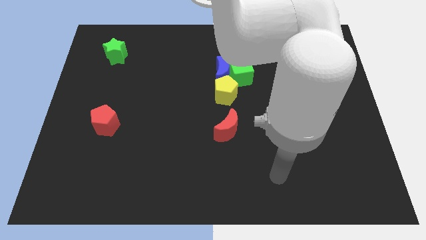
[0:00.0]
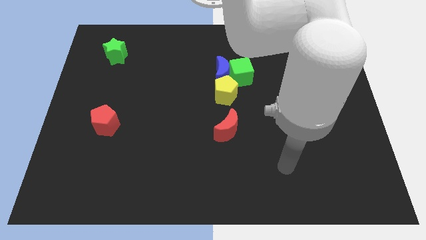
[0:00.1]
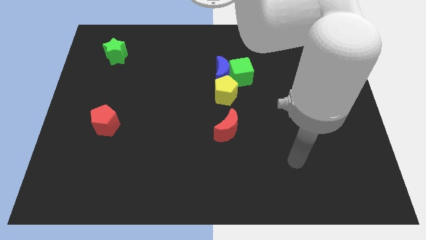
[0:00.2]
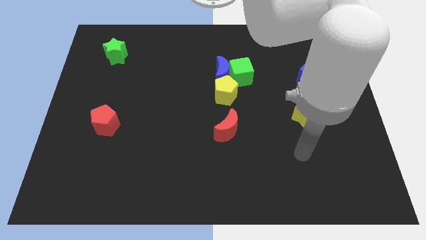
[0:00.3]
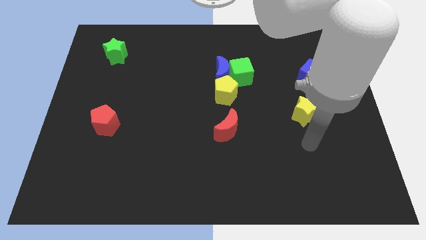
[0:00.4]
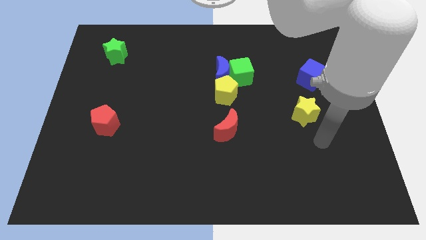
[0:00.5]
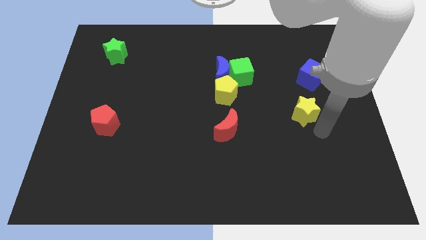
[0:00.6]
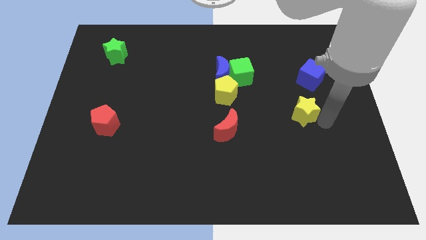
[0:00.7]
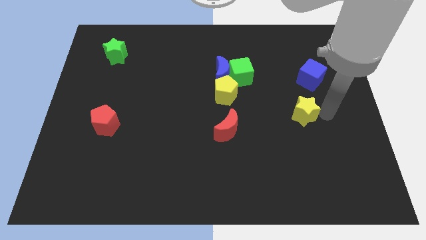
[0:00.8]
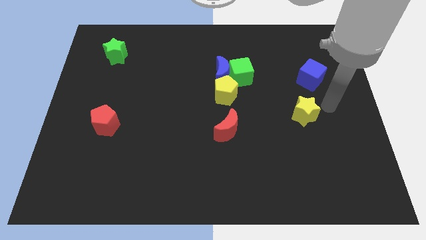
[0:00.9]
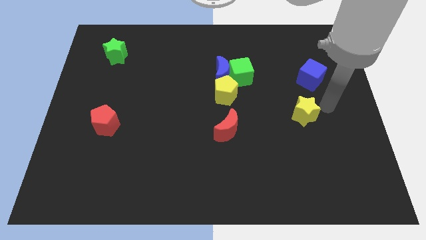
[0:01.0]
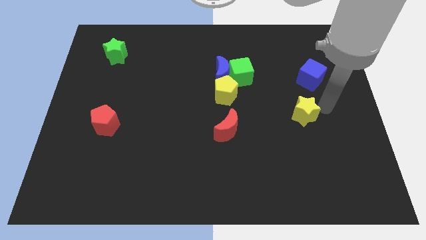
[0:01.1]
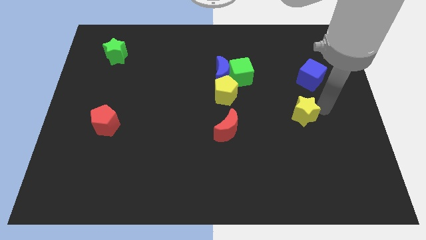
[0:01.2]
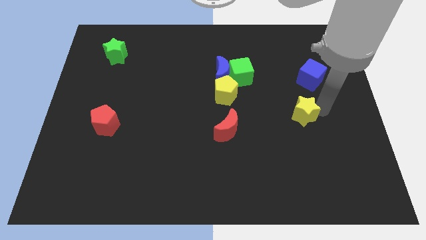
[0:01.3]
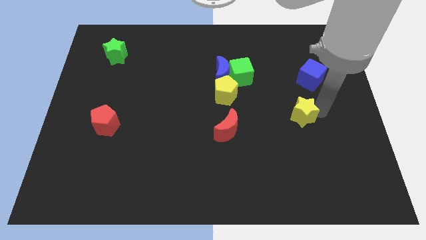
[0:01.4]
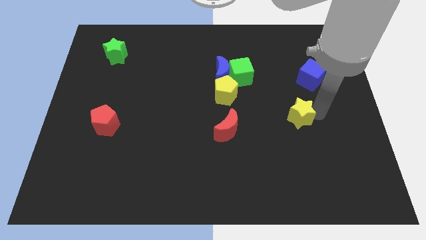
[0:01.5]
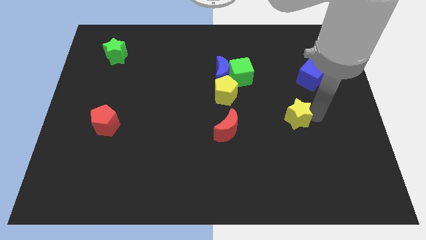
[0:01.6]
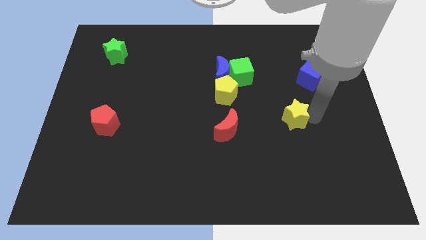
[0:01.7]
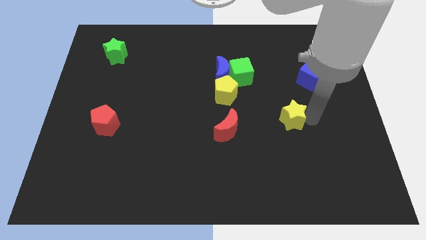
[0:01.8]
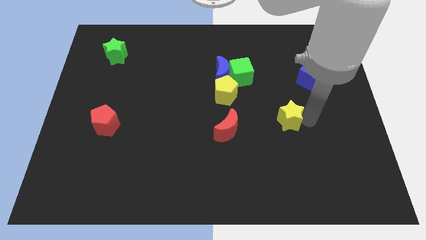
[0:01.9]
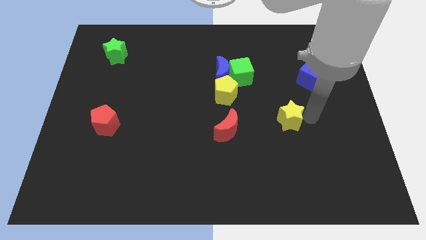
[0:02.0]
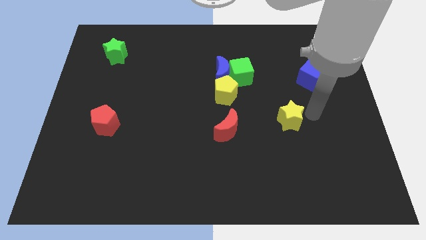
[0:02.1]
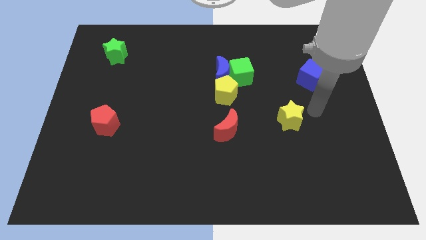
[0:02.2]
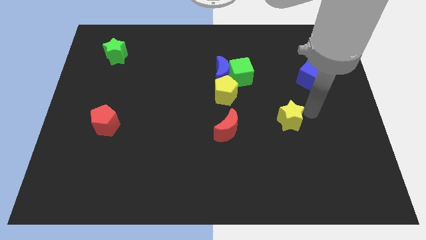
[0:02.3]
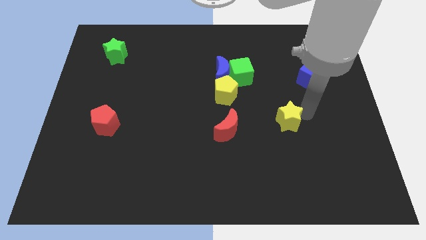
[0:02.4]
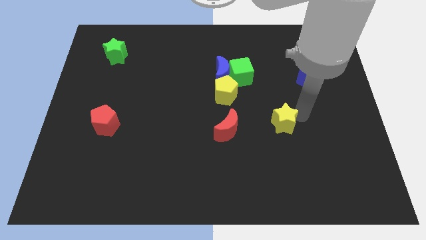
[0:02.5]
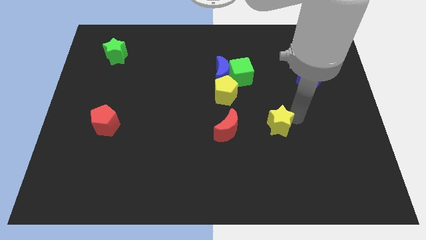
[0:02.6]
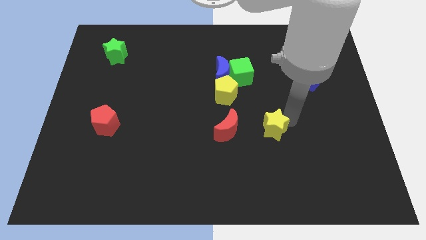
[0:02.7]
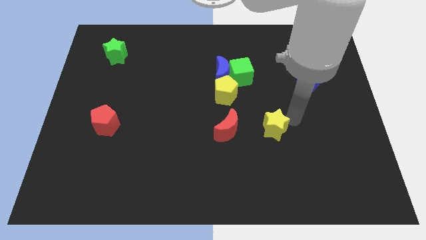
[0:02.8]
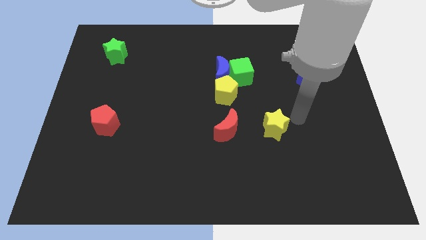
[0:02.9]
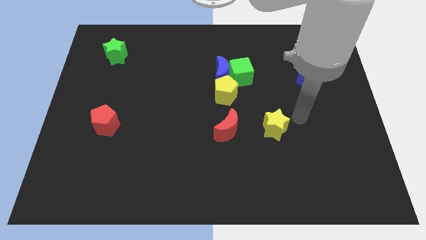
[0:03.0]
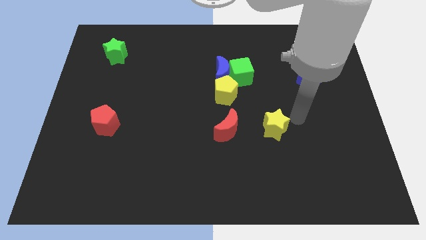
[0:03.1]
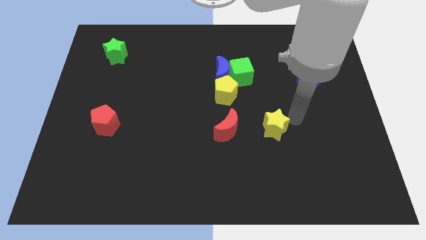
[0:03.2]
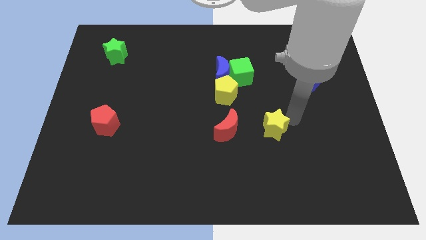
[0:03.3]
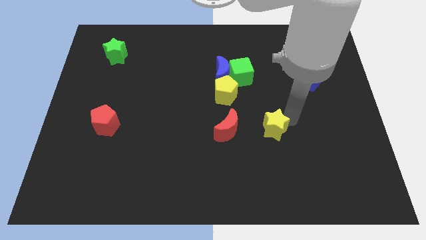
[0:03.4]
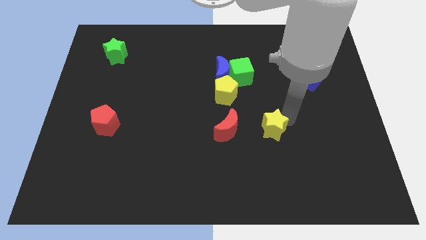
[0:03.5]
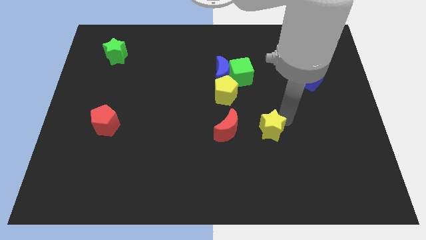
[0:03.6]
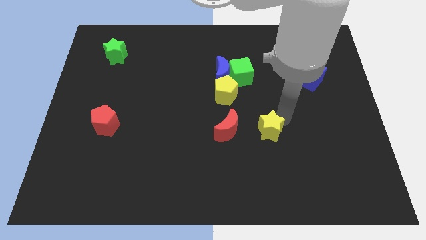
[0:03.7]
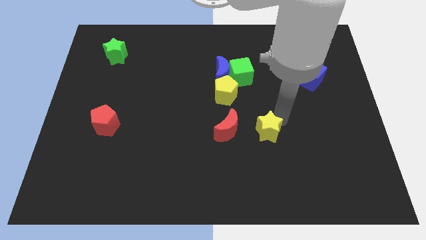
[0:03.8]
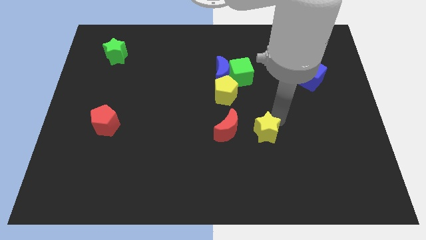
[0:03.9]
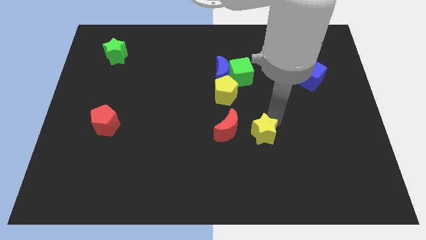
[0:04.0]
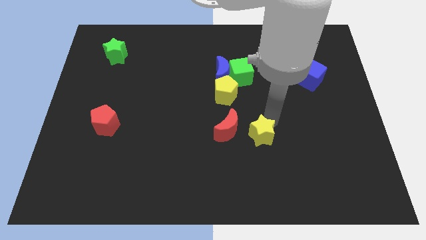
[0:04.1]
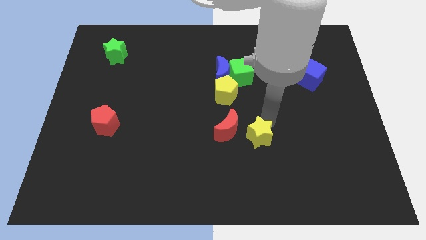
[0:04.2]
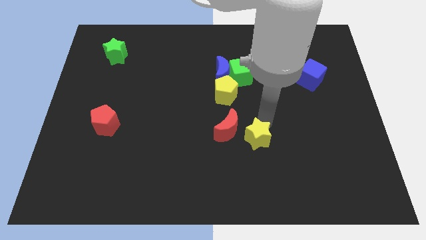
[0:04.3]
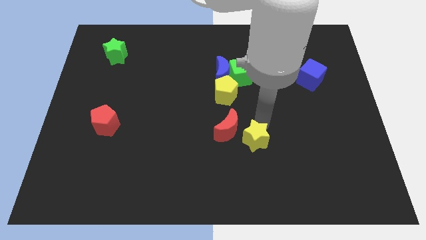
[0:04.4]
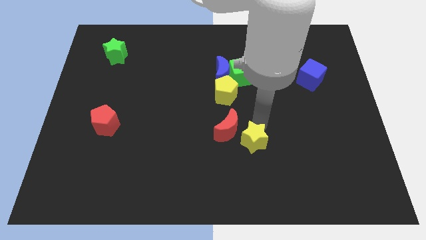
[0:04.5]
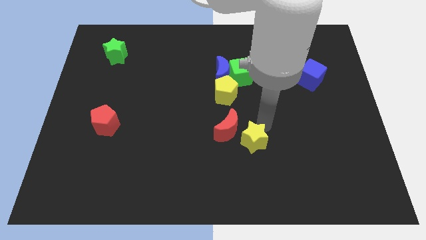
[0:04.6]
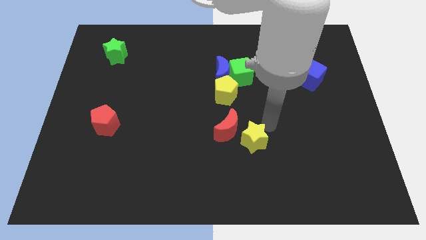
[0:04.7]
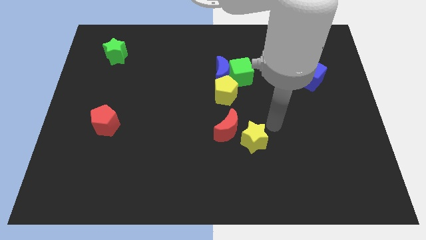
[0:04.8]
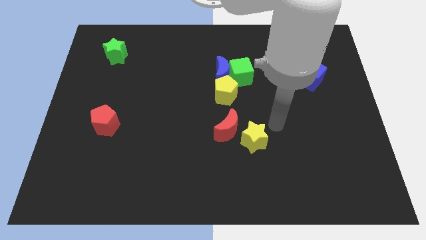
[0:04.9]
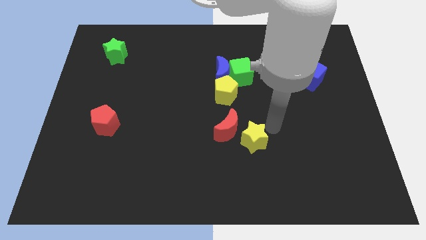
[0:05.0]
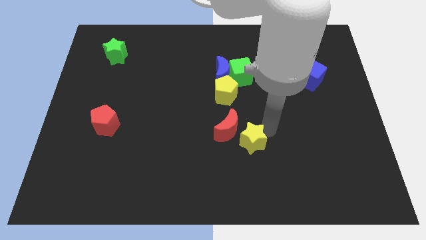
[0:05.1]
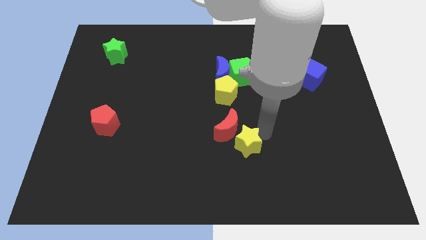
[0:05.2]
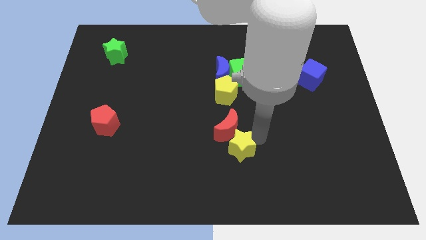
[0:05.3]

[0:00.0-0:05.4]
put the yellow star to the bottom of the yellow pentagon
